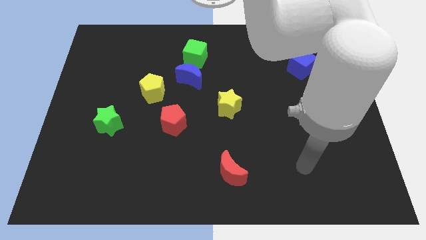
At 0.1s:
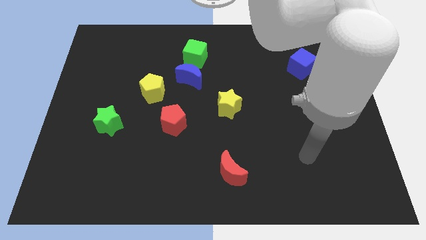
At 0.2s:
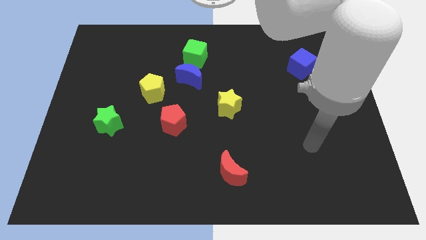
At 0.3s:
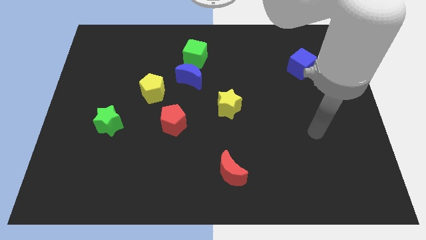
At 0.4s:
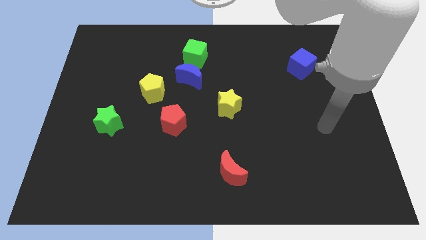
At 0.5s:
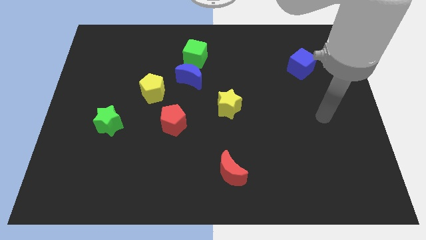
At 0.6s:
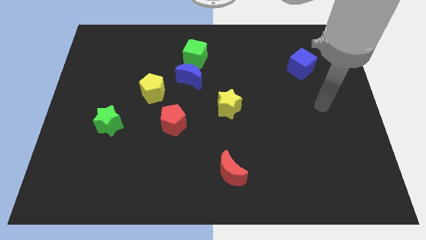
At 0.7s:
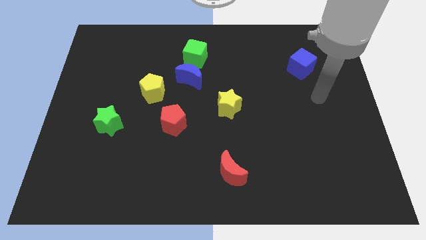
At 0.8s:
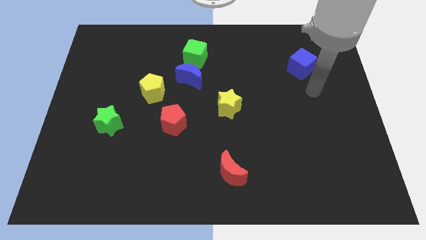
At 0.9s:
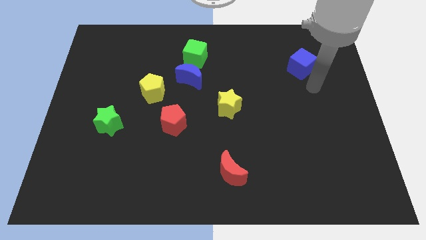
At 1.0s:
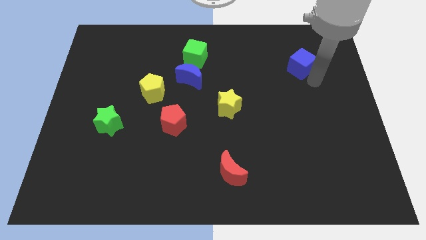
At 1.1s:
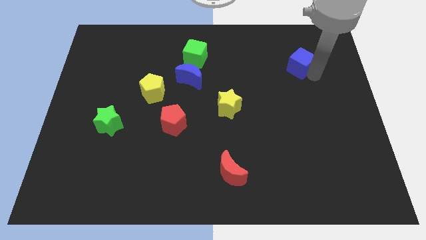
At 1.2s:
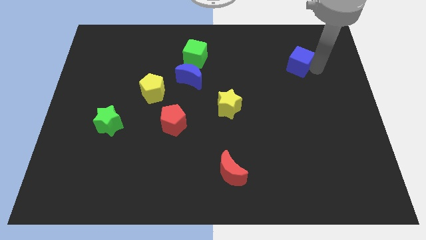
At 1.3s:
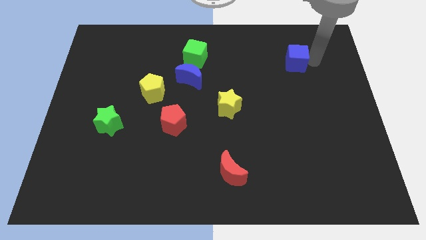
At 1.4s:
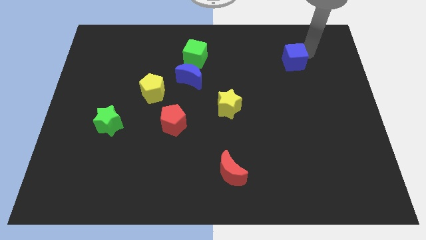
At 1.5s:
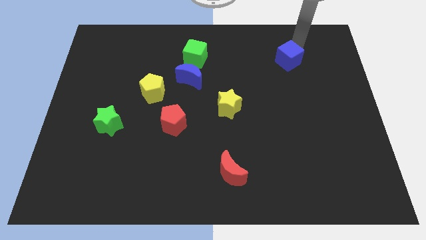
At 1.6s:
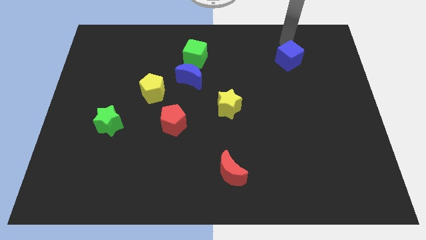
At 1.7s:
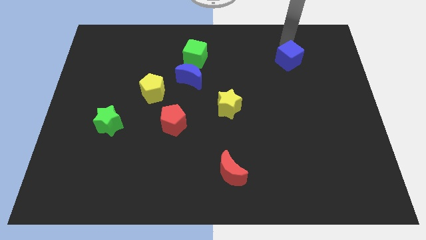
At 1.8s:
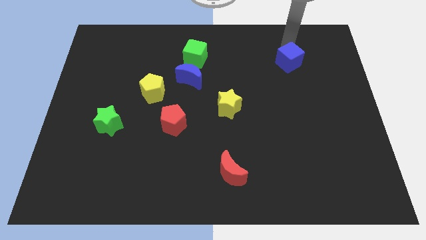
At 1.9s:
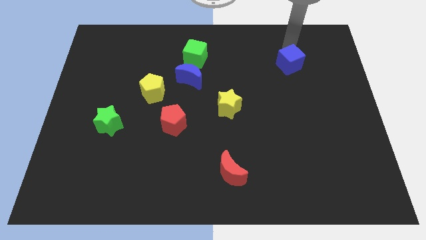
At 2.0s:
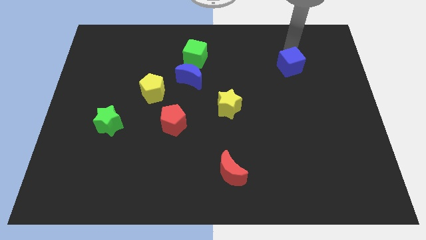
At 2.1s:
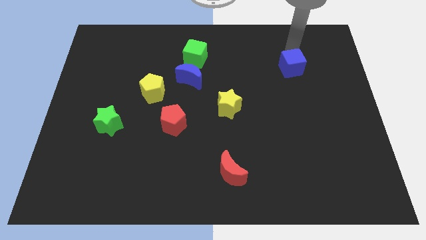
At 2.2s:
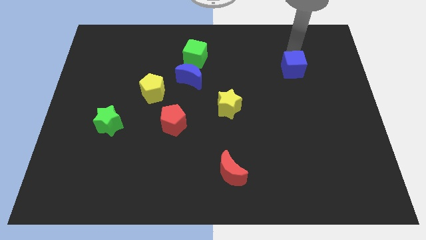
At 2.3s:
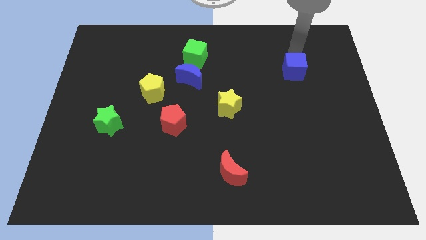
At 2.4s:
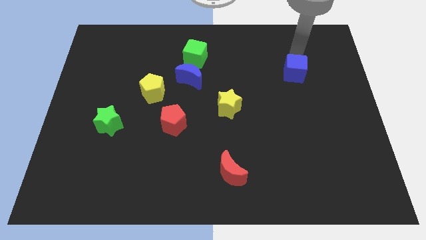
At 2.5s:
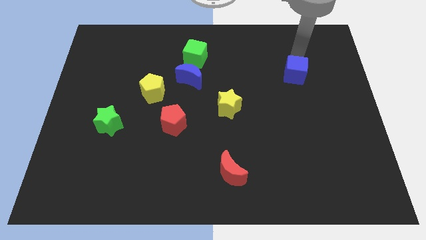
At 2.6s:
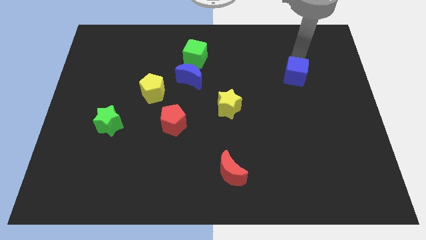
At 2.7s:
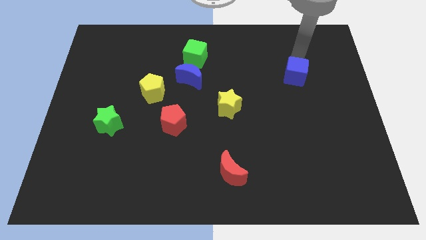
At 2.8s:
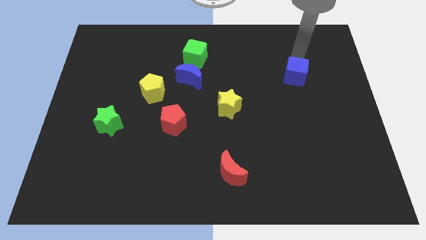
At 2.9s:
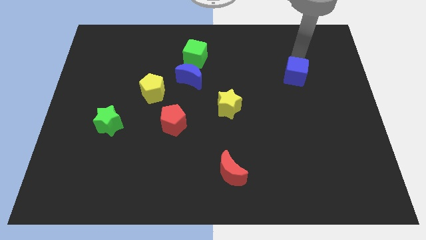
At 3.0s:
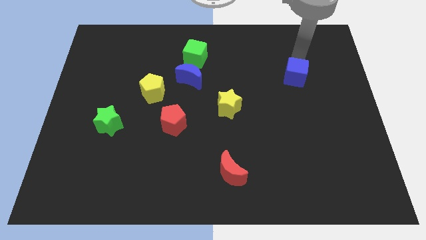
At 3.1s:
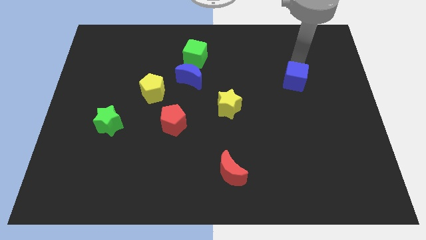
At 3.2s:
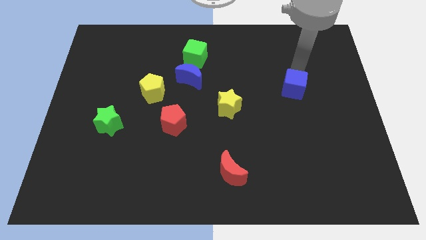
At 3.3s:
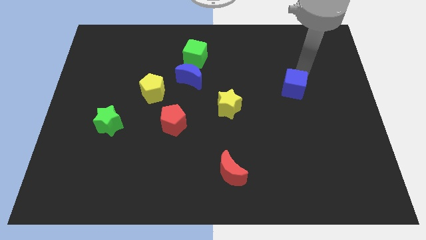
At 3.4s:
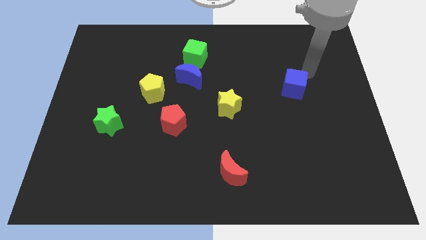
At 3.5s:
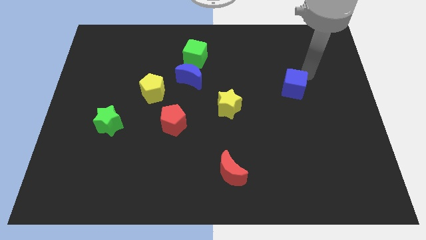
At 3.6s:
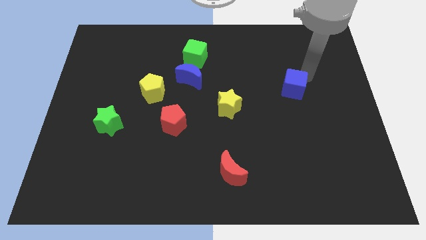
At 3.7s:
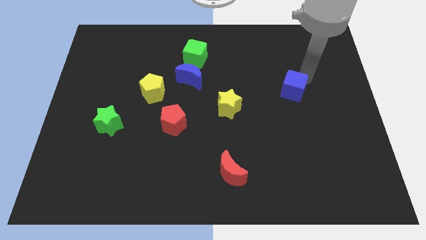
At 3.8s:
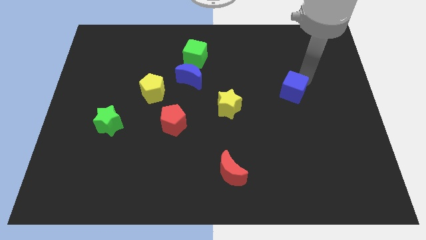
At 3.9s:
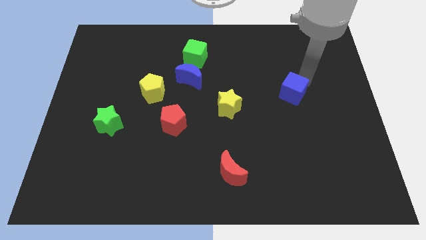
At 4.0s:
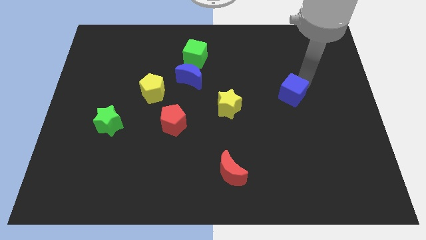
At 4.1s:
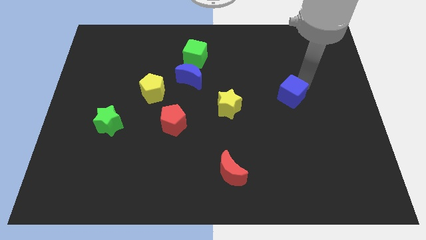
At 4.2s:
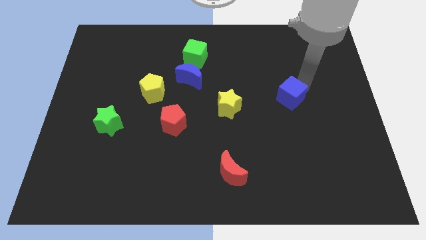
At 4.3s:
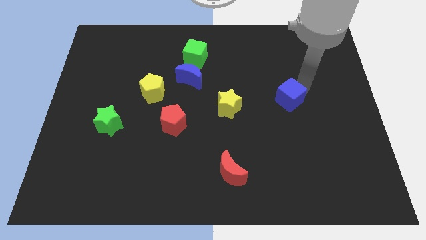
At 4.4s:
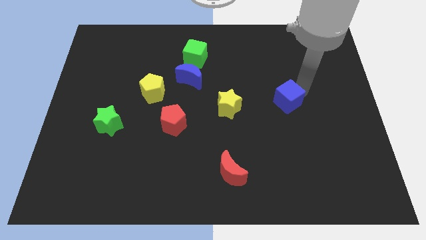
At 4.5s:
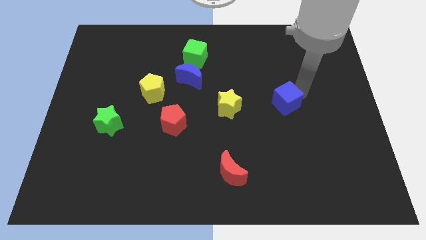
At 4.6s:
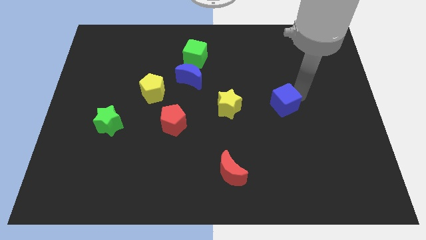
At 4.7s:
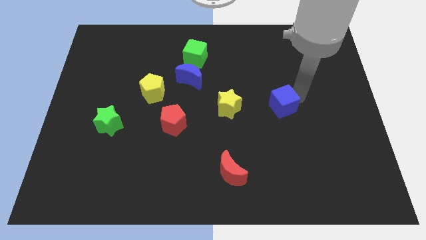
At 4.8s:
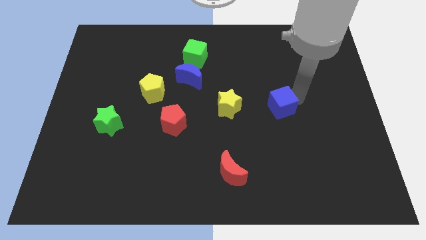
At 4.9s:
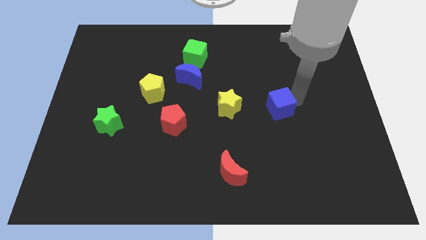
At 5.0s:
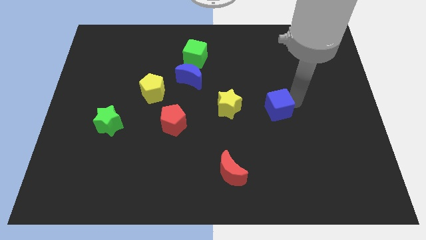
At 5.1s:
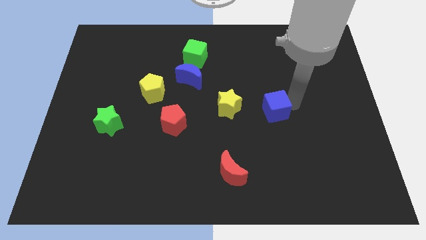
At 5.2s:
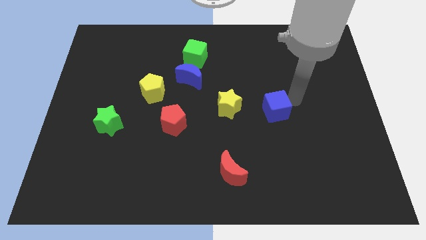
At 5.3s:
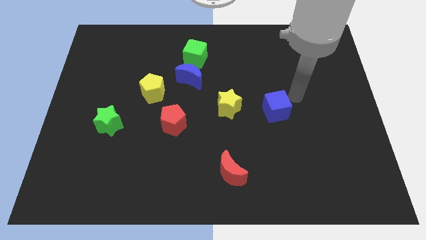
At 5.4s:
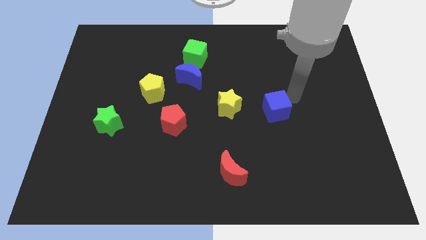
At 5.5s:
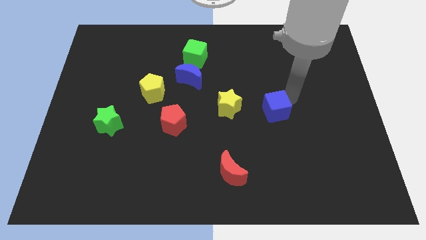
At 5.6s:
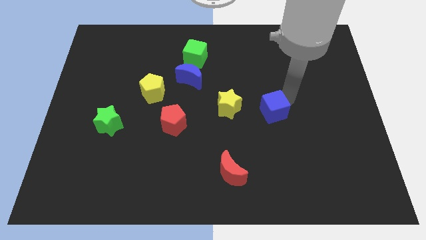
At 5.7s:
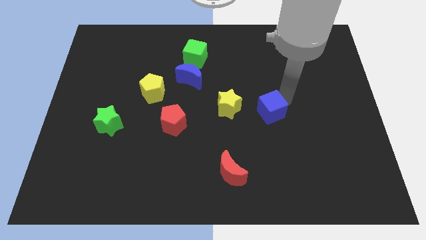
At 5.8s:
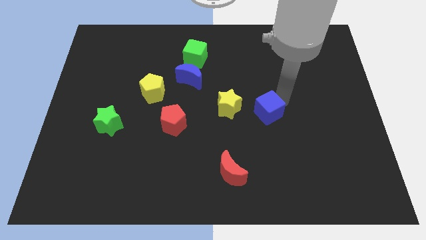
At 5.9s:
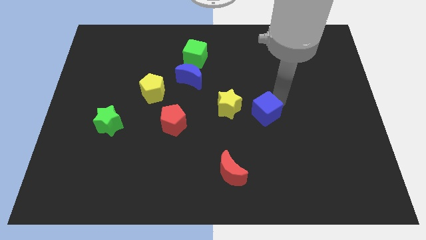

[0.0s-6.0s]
put the blue cube to the bottom right side of the yellow star

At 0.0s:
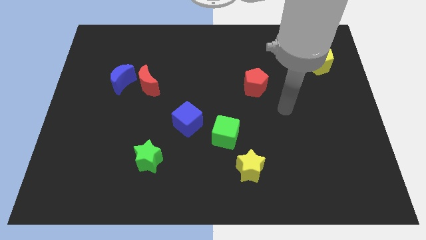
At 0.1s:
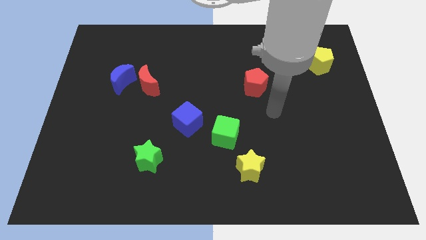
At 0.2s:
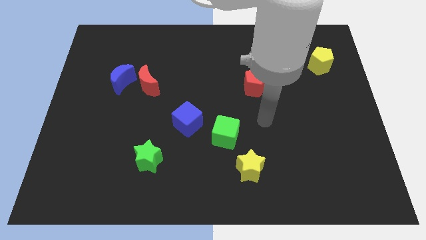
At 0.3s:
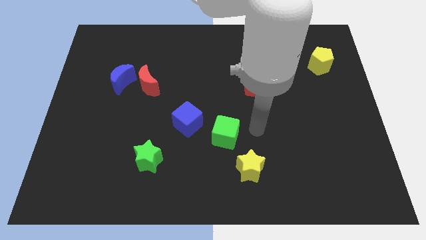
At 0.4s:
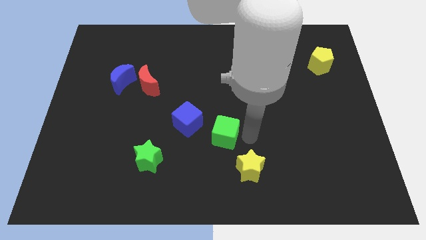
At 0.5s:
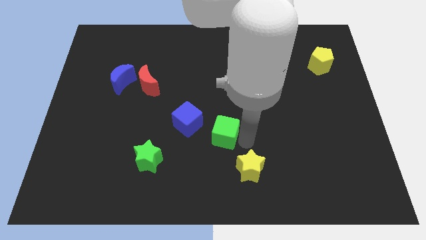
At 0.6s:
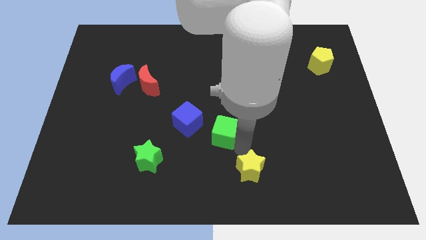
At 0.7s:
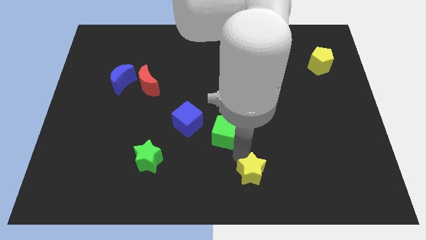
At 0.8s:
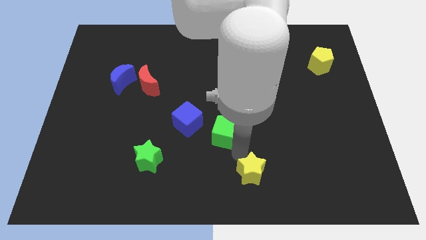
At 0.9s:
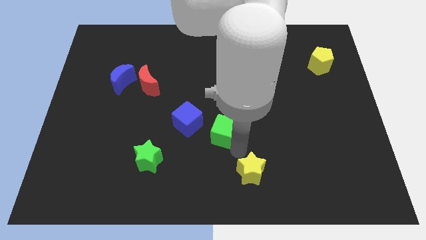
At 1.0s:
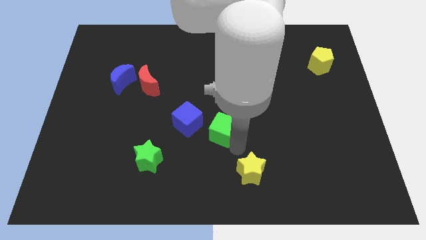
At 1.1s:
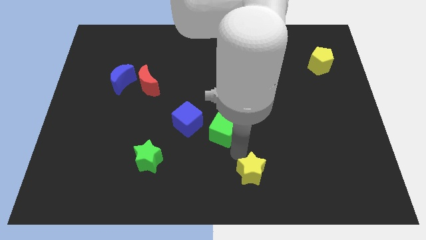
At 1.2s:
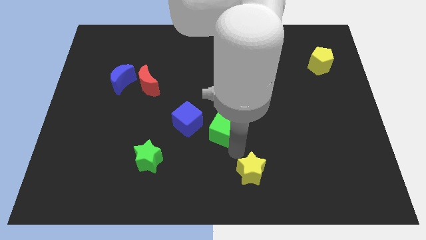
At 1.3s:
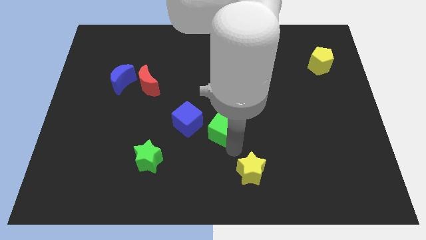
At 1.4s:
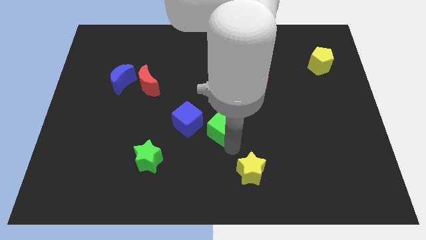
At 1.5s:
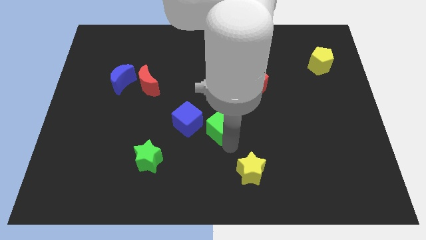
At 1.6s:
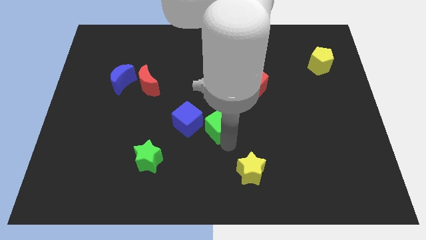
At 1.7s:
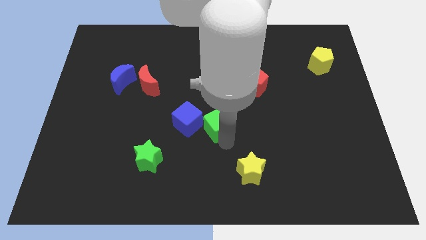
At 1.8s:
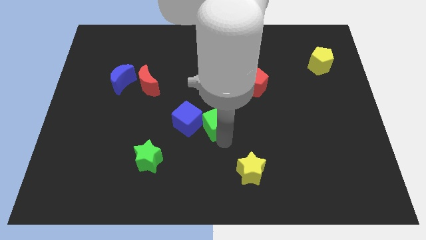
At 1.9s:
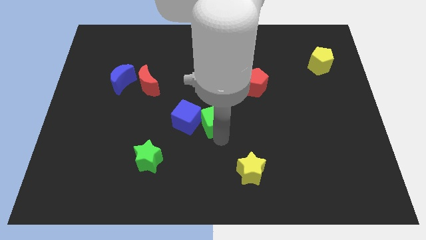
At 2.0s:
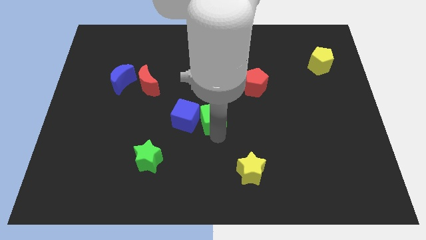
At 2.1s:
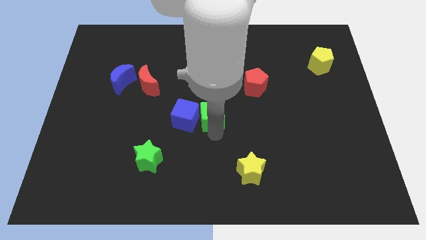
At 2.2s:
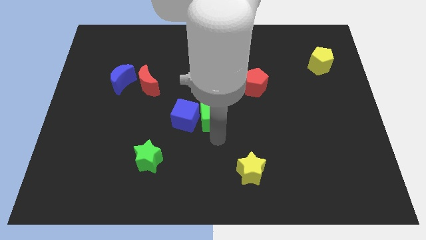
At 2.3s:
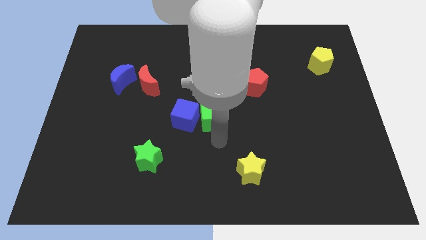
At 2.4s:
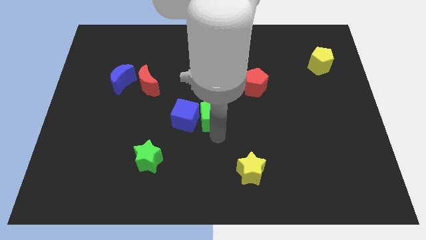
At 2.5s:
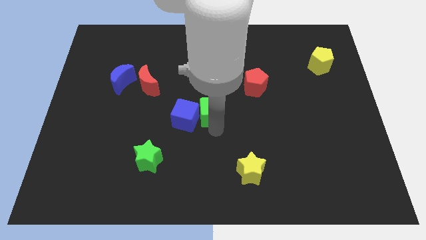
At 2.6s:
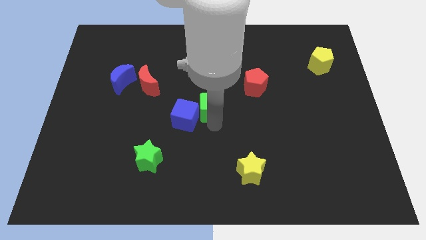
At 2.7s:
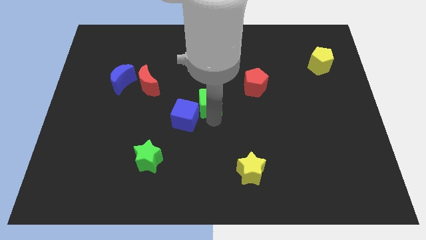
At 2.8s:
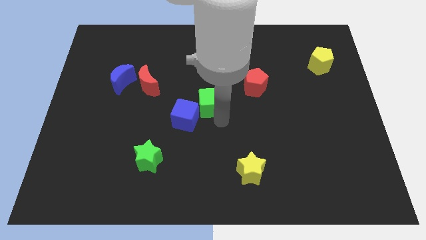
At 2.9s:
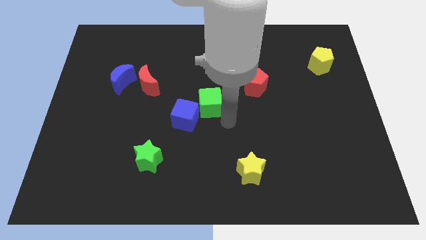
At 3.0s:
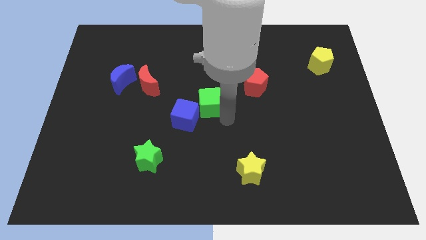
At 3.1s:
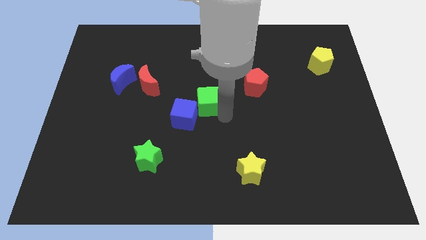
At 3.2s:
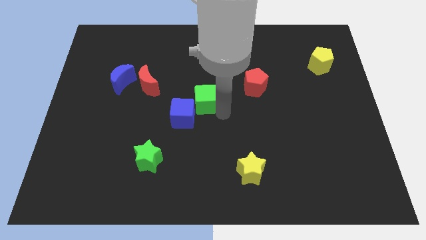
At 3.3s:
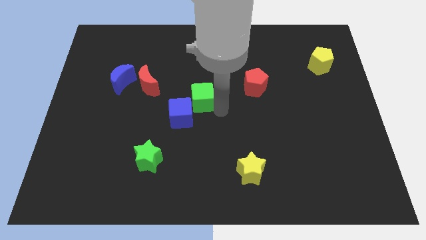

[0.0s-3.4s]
slide the green cube to the top of the blue cube
